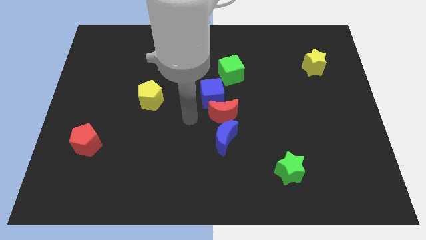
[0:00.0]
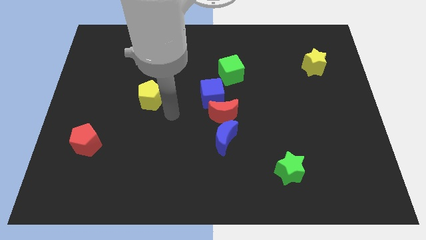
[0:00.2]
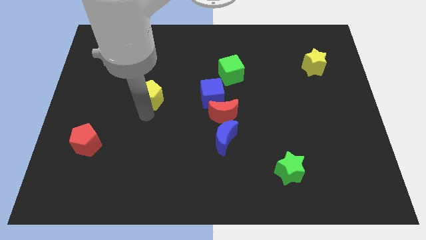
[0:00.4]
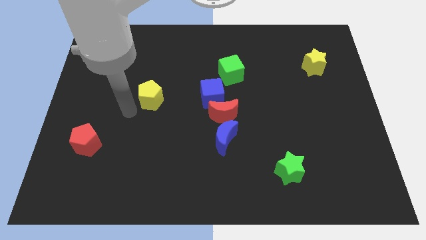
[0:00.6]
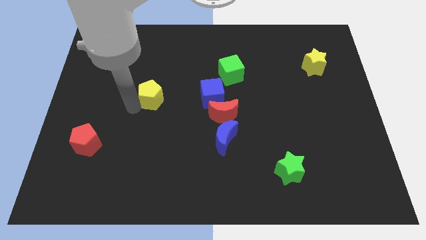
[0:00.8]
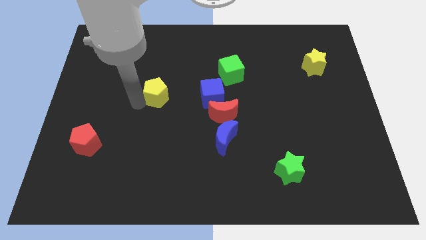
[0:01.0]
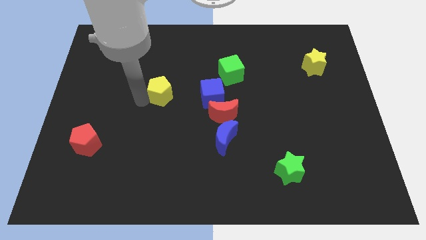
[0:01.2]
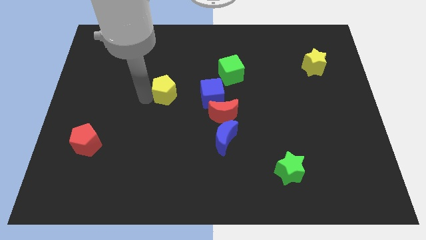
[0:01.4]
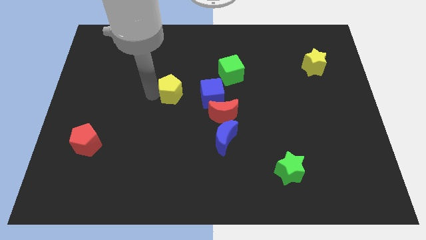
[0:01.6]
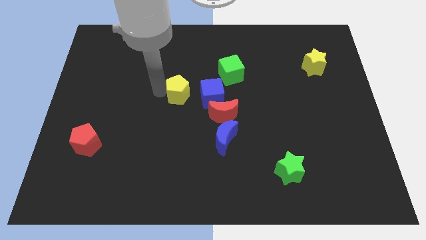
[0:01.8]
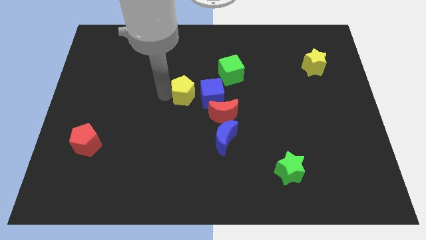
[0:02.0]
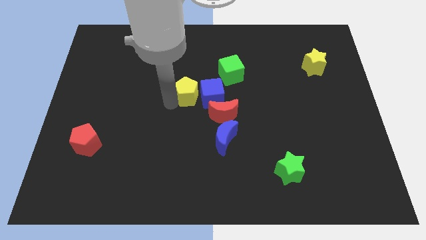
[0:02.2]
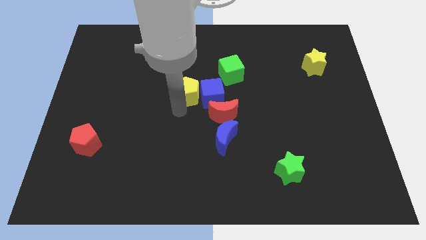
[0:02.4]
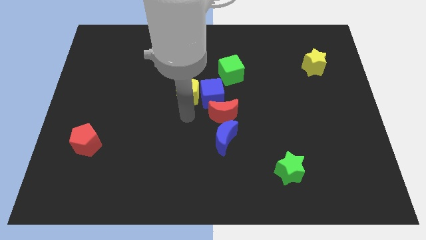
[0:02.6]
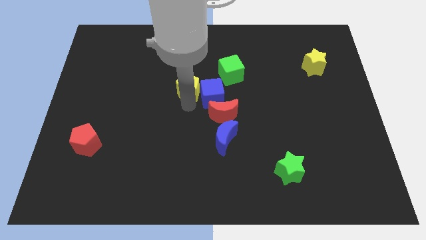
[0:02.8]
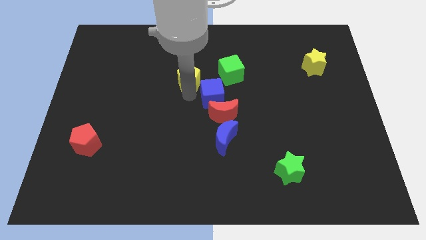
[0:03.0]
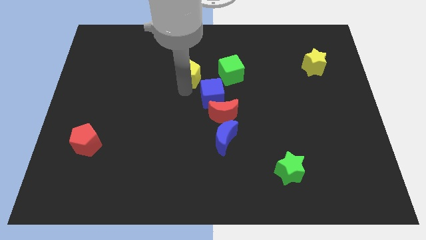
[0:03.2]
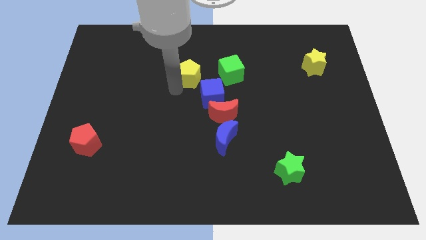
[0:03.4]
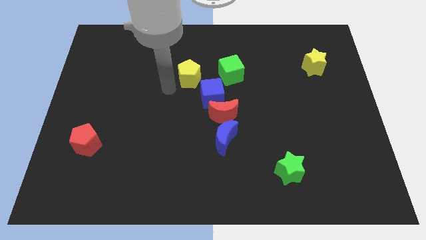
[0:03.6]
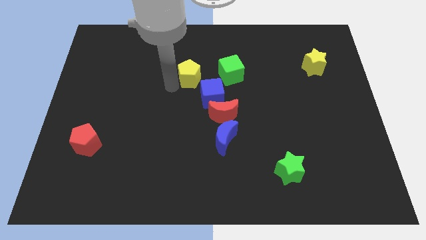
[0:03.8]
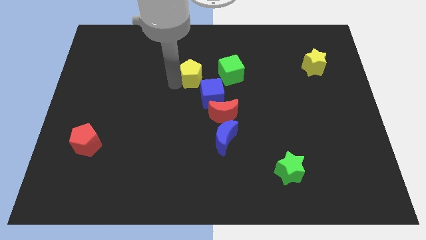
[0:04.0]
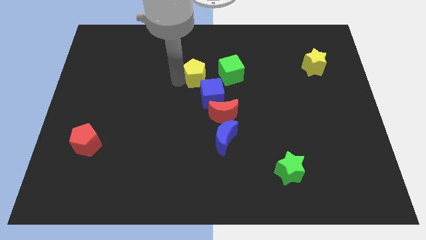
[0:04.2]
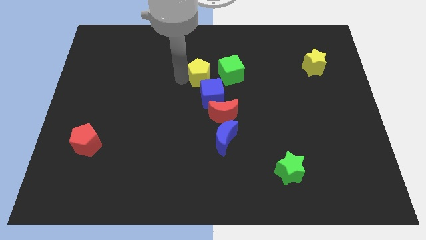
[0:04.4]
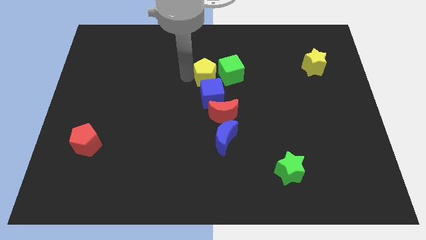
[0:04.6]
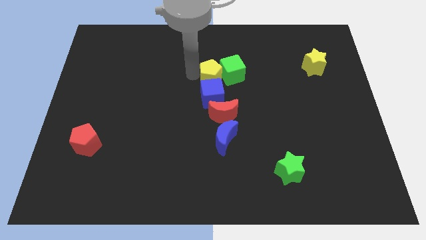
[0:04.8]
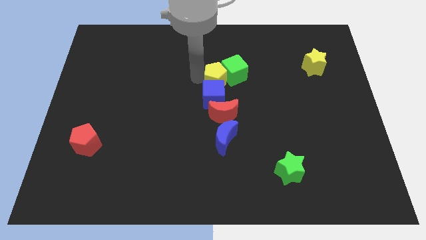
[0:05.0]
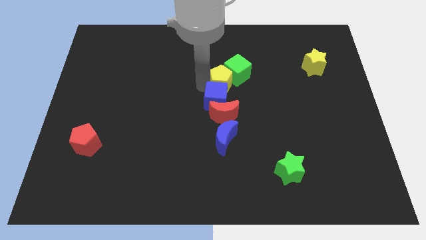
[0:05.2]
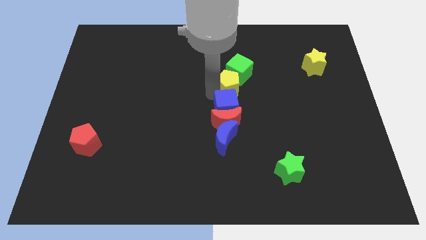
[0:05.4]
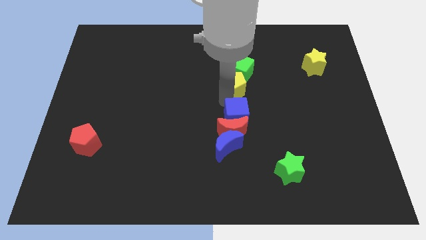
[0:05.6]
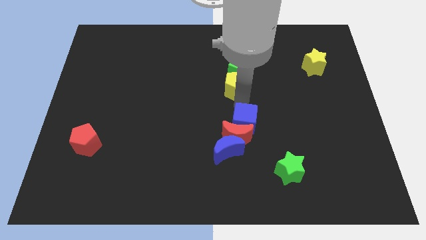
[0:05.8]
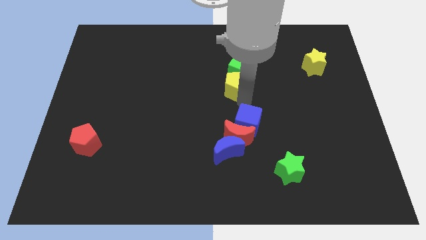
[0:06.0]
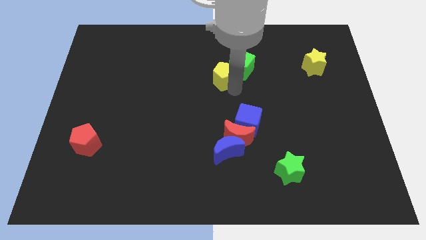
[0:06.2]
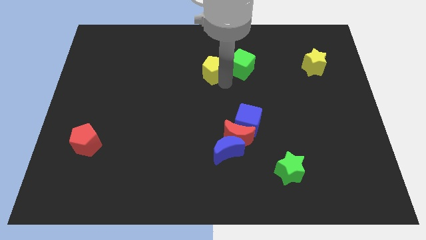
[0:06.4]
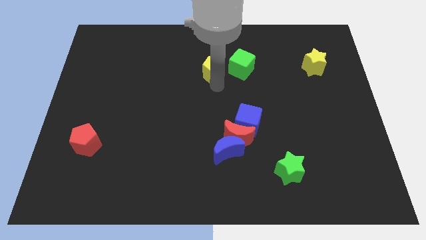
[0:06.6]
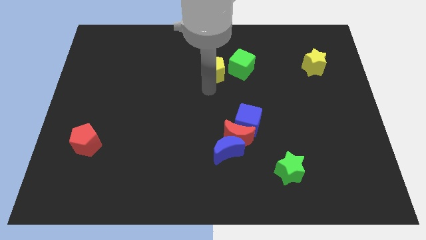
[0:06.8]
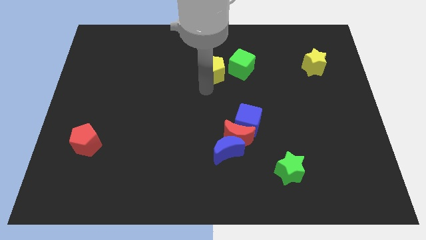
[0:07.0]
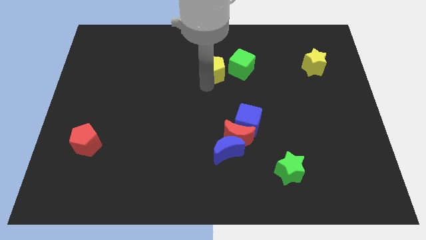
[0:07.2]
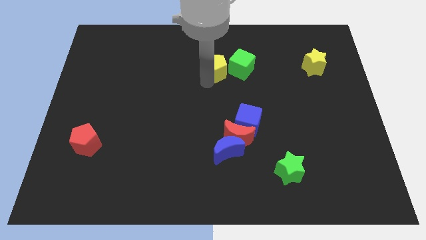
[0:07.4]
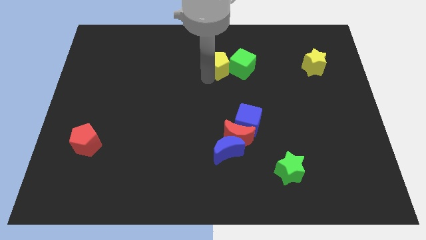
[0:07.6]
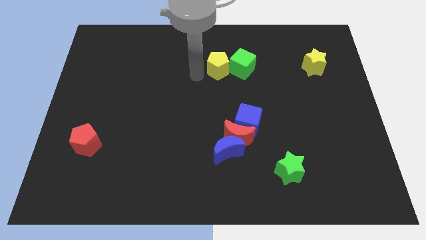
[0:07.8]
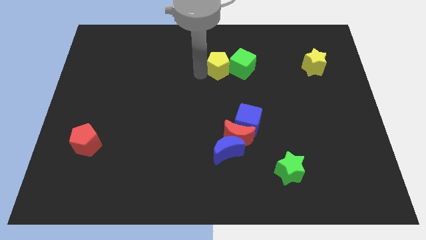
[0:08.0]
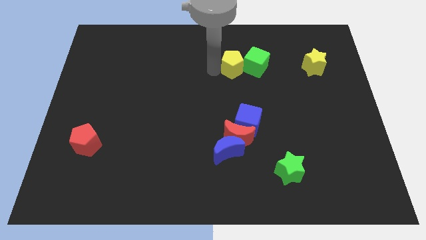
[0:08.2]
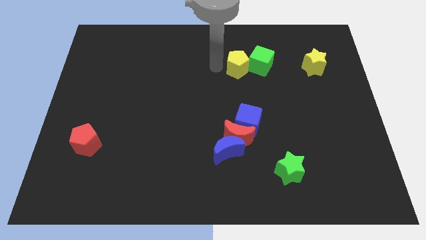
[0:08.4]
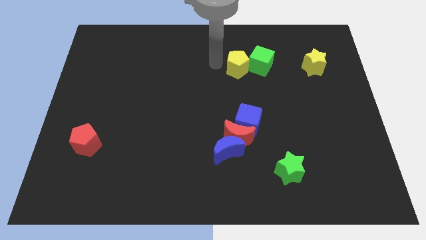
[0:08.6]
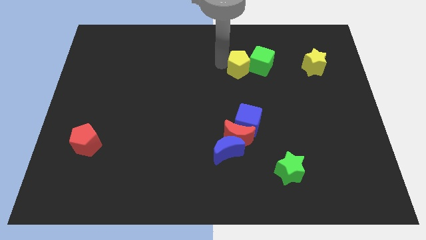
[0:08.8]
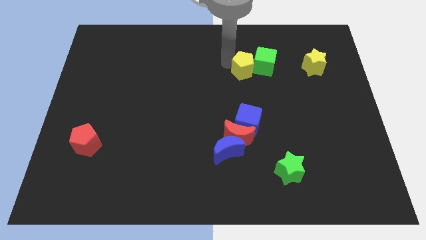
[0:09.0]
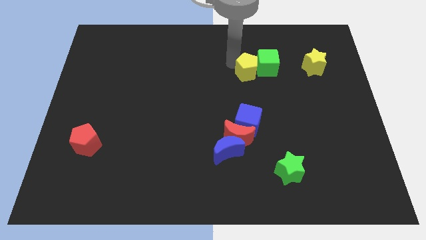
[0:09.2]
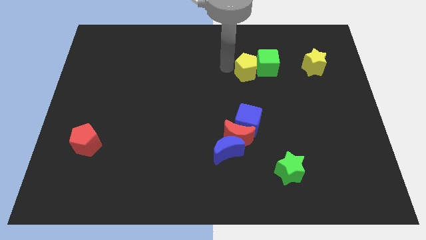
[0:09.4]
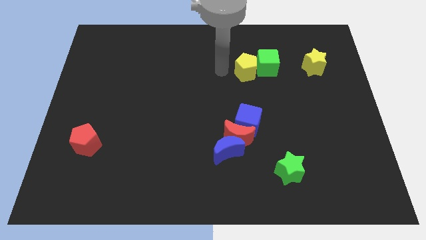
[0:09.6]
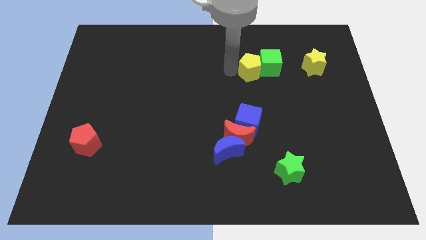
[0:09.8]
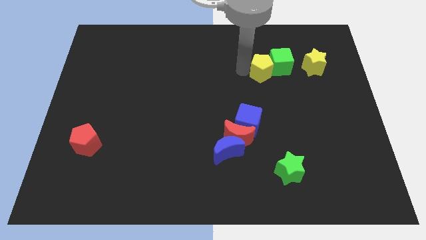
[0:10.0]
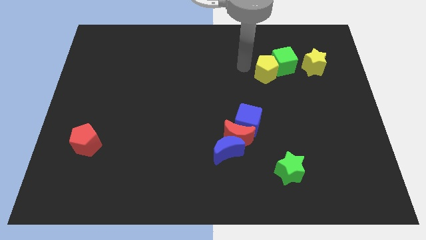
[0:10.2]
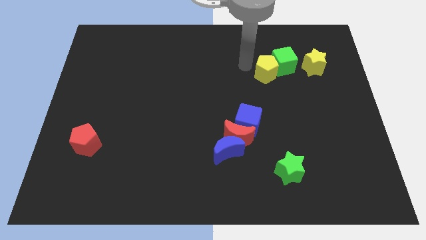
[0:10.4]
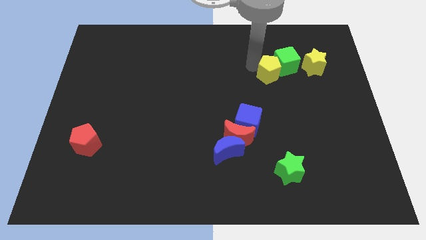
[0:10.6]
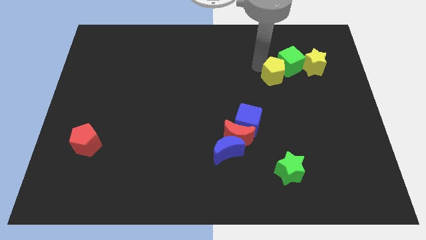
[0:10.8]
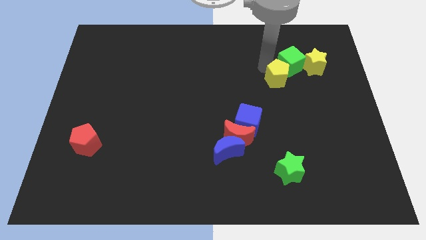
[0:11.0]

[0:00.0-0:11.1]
put the yellow pentagon to the bottom left side of the yellow star

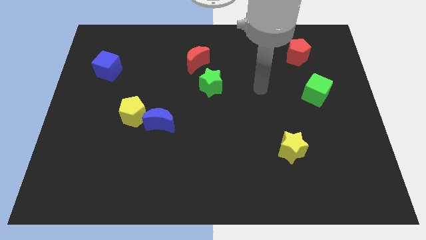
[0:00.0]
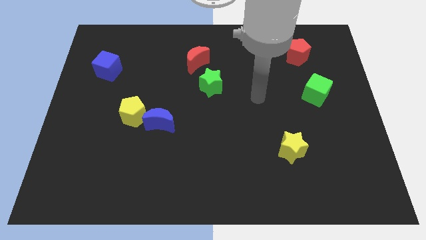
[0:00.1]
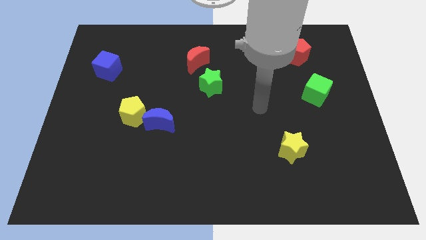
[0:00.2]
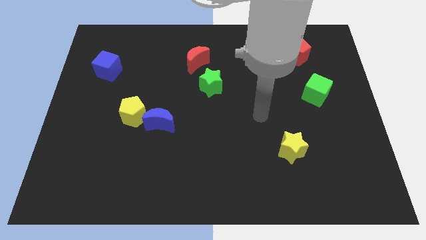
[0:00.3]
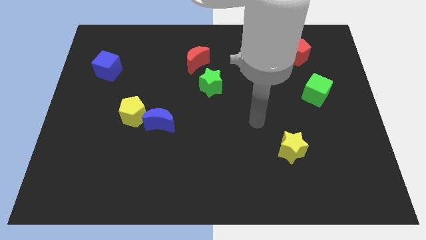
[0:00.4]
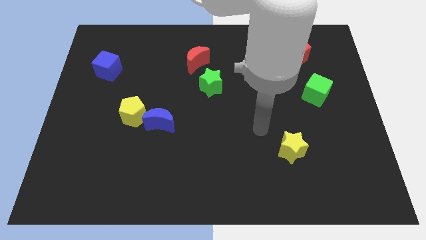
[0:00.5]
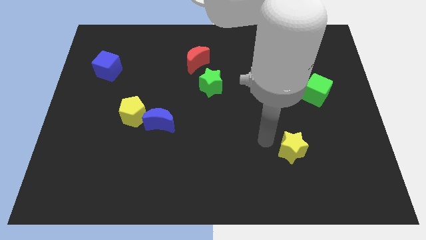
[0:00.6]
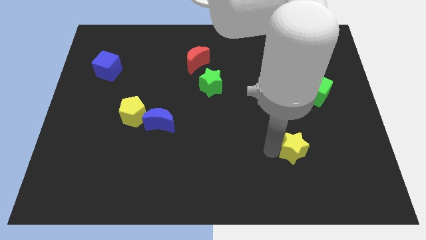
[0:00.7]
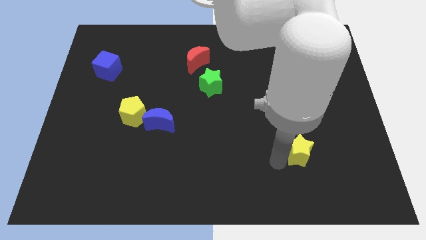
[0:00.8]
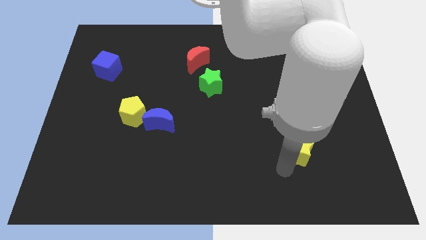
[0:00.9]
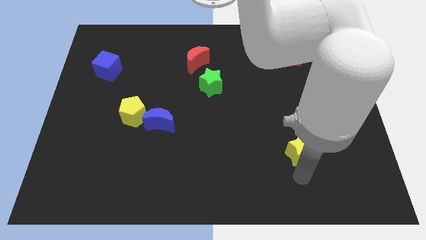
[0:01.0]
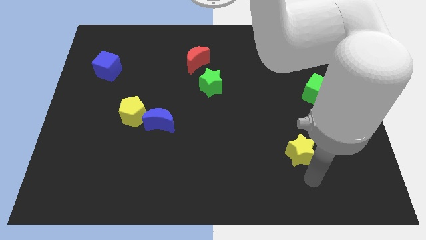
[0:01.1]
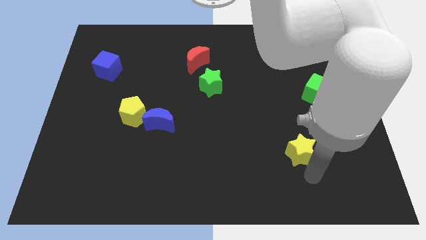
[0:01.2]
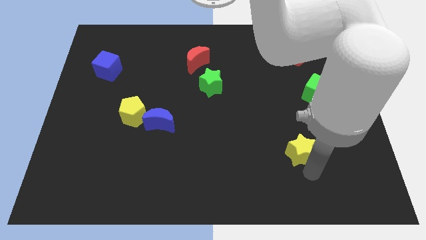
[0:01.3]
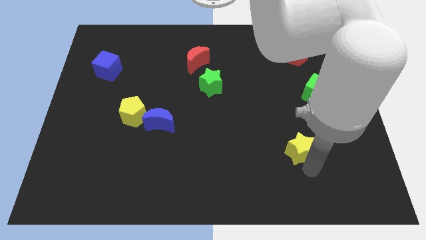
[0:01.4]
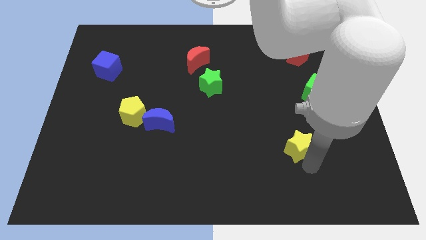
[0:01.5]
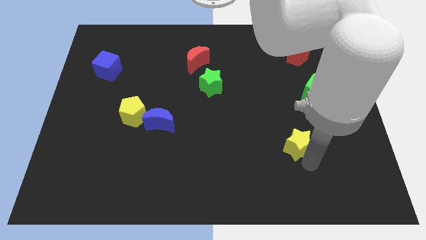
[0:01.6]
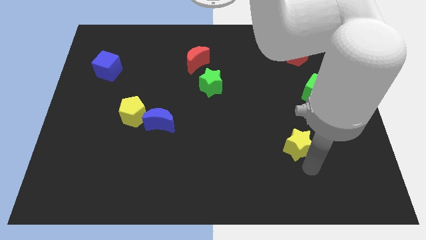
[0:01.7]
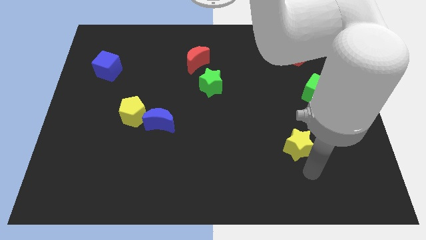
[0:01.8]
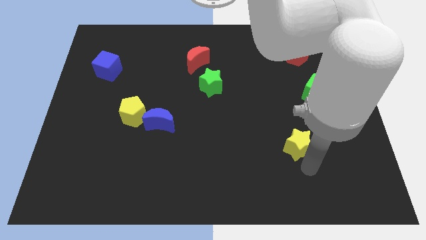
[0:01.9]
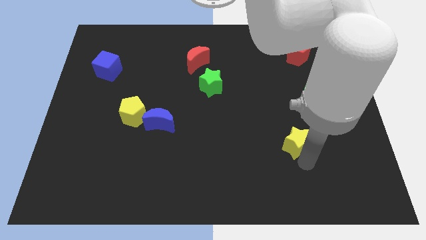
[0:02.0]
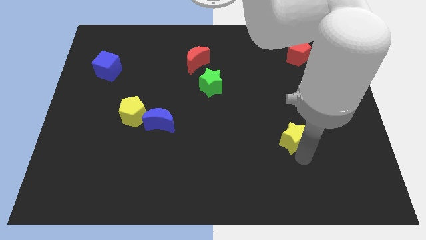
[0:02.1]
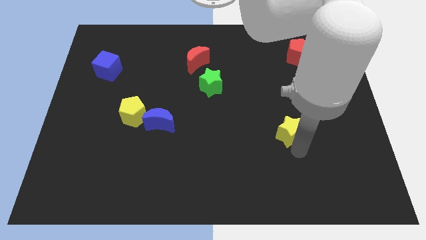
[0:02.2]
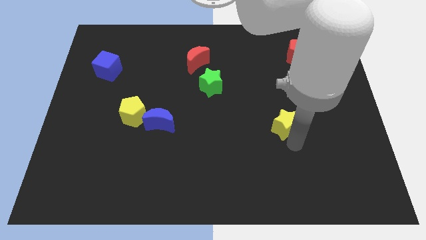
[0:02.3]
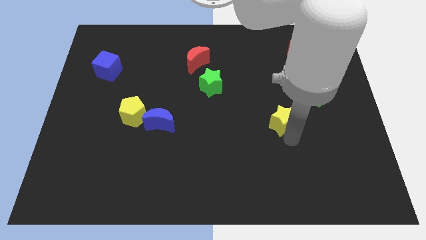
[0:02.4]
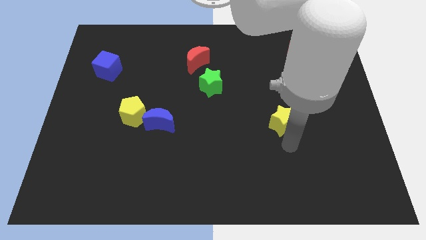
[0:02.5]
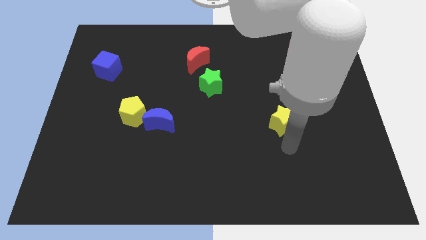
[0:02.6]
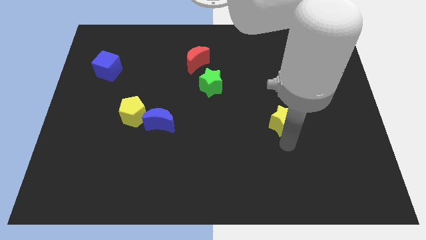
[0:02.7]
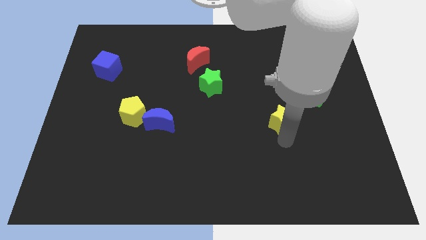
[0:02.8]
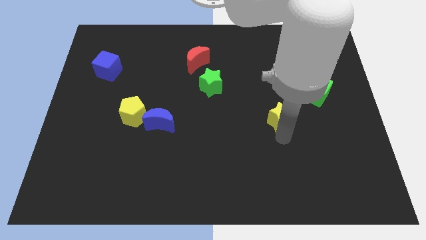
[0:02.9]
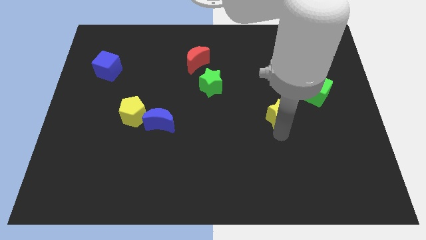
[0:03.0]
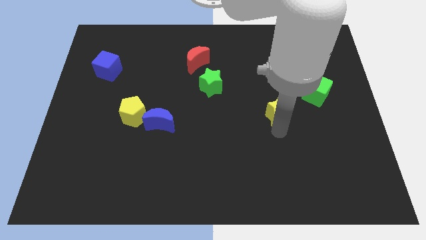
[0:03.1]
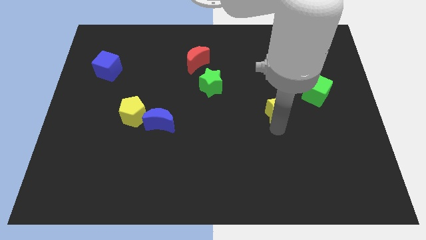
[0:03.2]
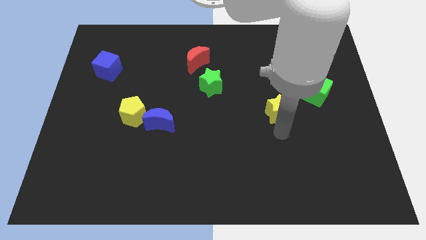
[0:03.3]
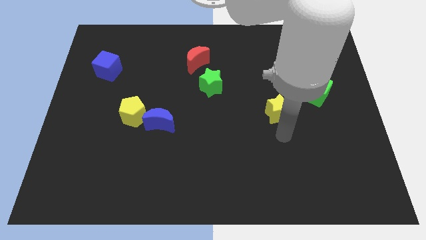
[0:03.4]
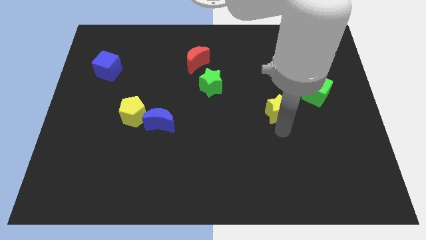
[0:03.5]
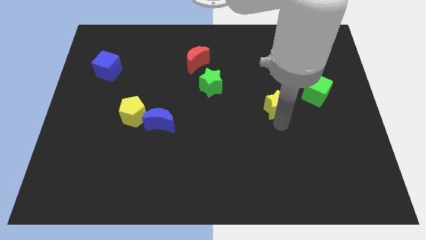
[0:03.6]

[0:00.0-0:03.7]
push the yellow star to the left side of the green cube
